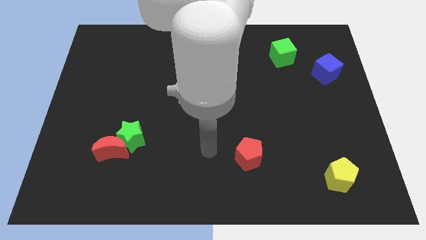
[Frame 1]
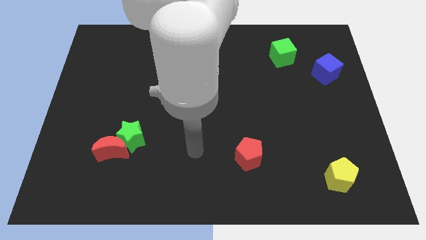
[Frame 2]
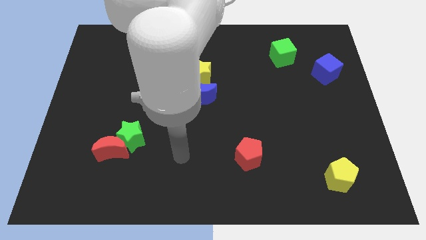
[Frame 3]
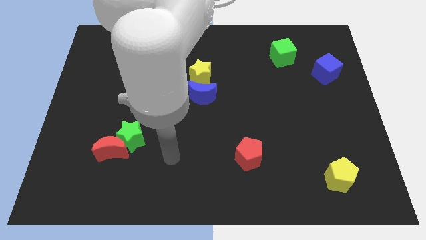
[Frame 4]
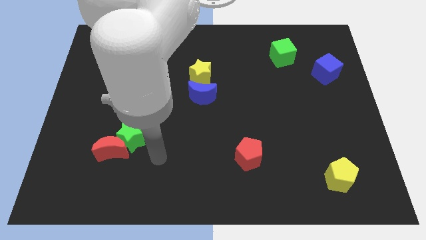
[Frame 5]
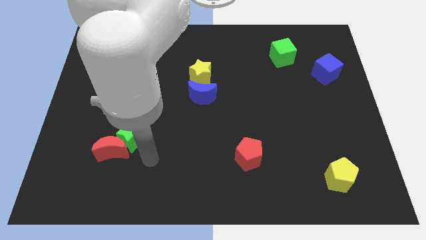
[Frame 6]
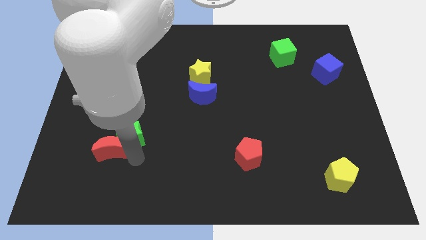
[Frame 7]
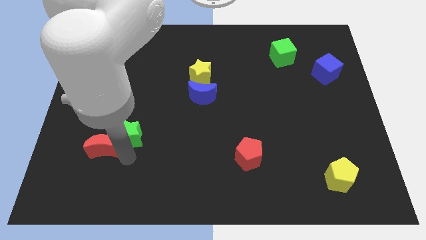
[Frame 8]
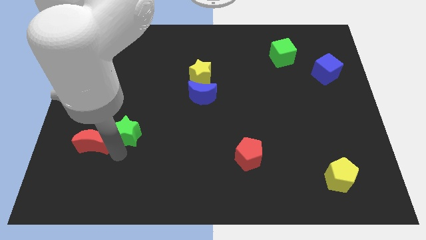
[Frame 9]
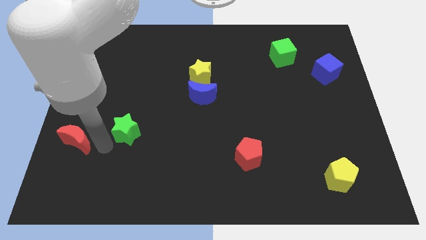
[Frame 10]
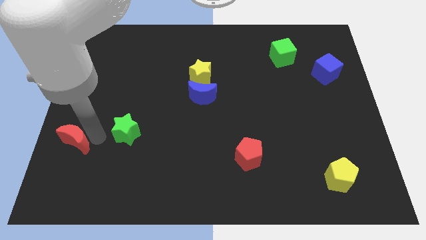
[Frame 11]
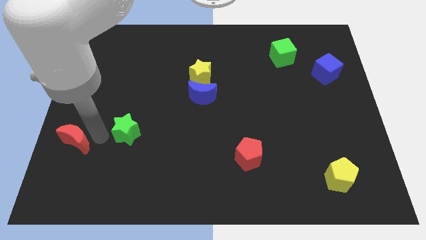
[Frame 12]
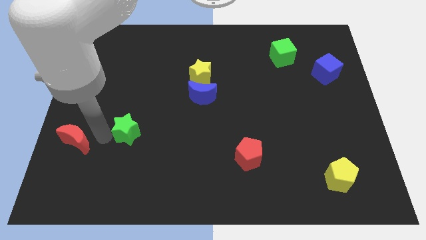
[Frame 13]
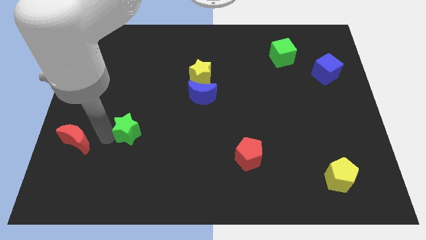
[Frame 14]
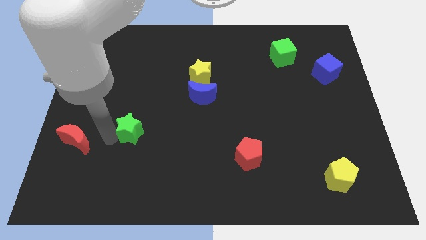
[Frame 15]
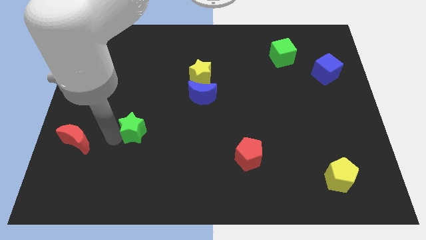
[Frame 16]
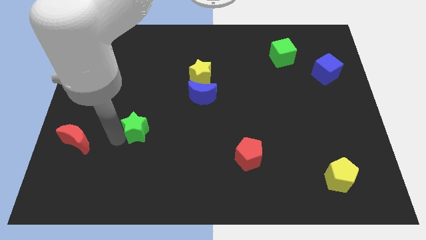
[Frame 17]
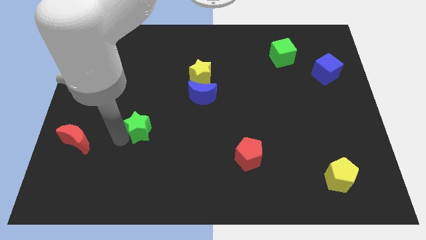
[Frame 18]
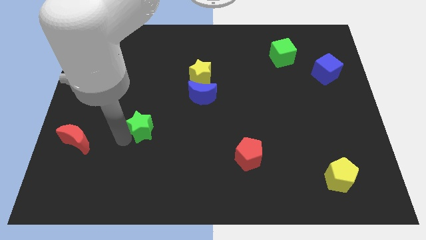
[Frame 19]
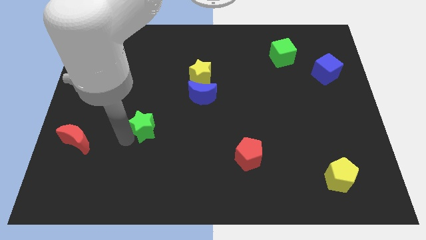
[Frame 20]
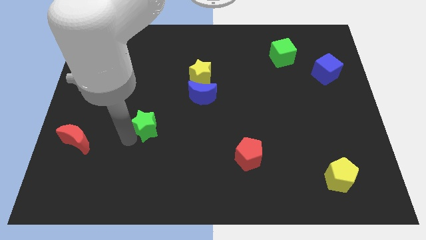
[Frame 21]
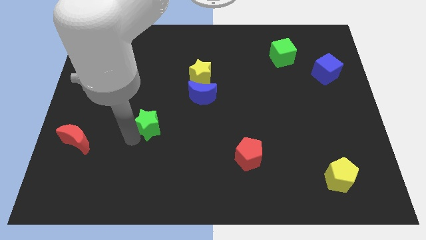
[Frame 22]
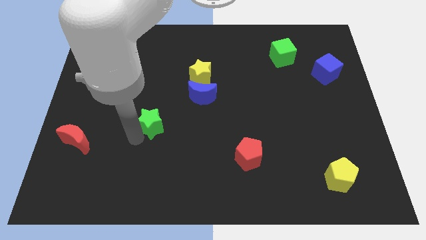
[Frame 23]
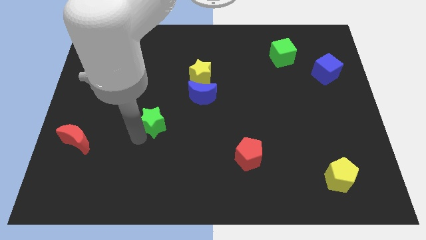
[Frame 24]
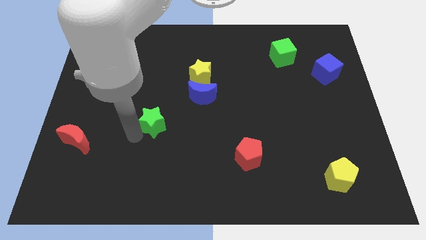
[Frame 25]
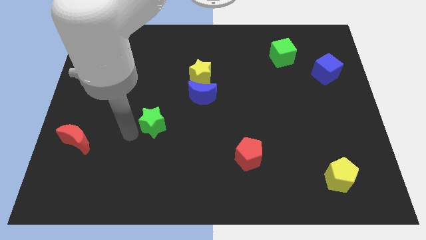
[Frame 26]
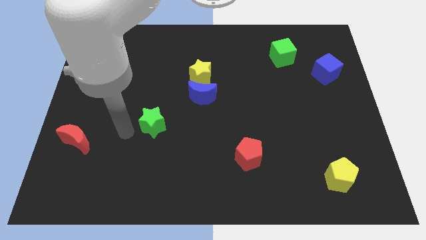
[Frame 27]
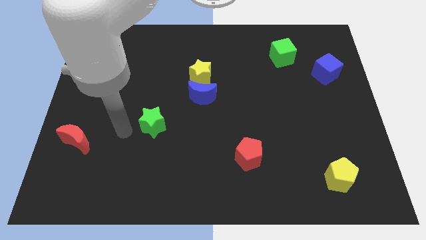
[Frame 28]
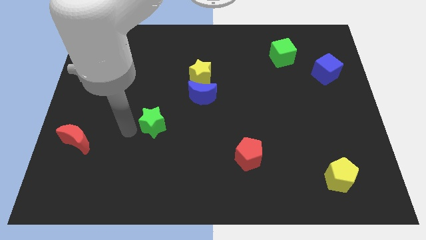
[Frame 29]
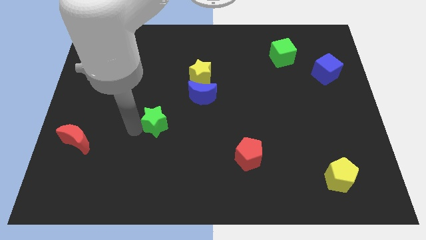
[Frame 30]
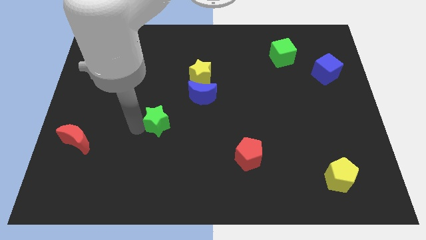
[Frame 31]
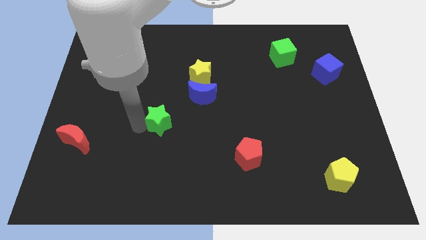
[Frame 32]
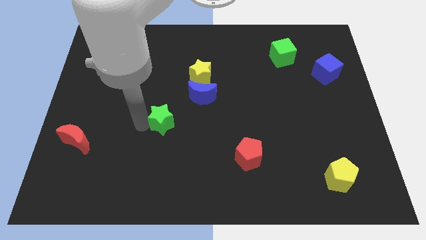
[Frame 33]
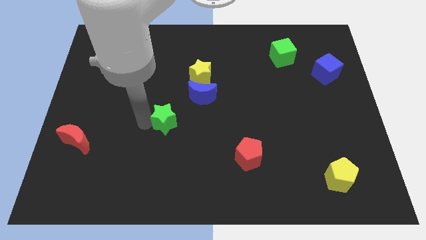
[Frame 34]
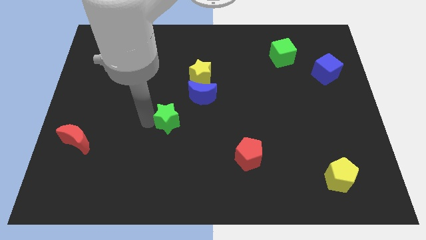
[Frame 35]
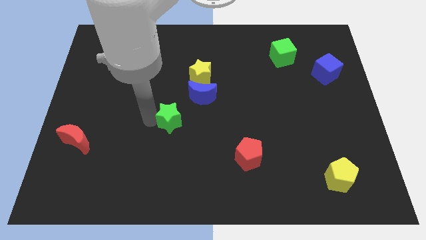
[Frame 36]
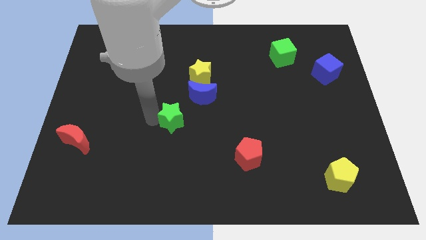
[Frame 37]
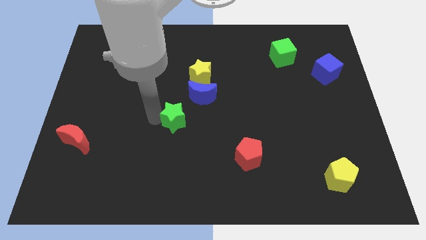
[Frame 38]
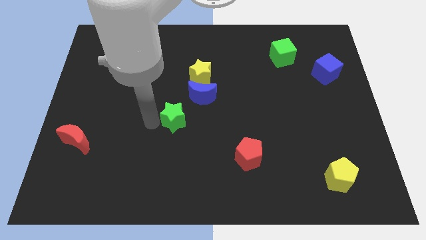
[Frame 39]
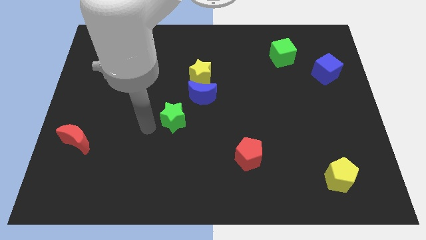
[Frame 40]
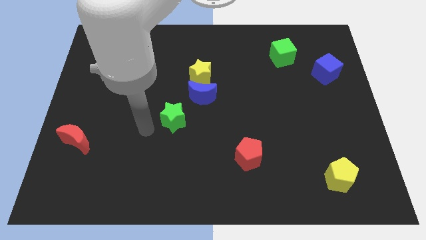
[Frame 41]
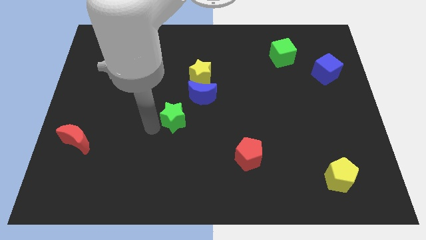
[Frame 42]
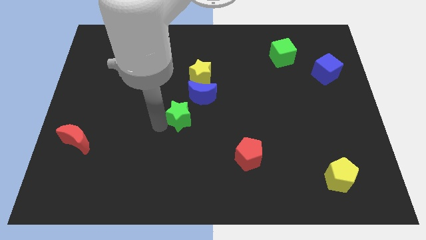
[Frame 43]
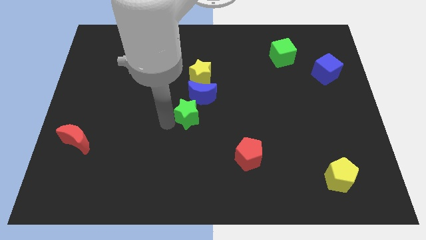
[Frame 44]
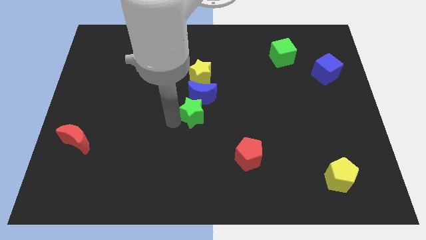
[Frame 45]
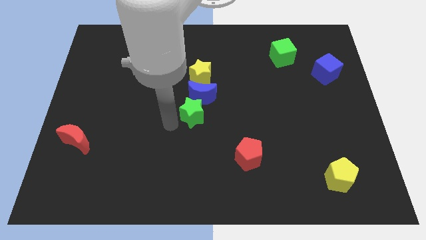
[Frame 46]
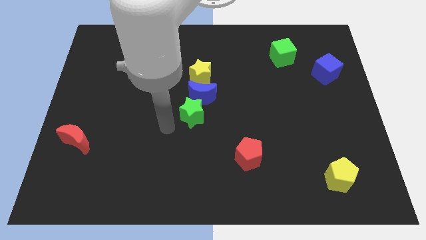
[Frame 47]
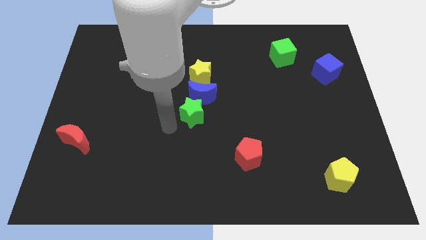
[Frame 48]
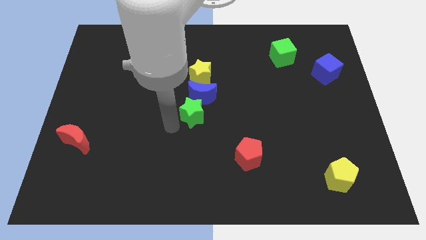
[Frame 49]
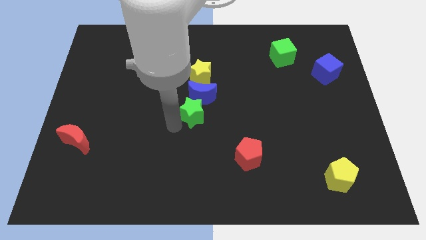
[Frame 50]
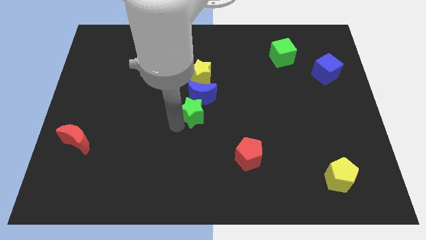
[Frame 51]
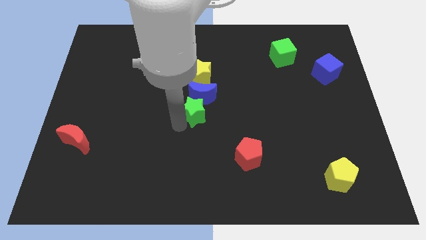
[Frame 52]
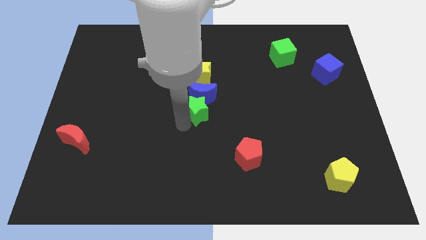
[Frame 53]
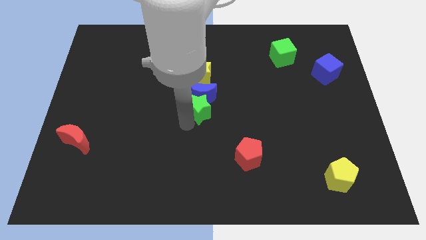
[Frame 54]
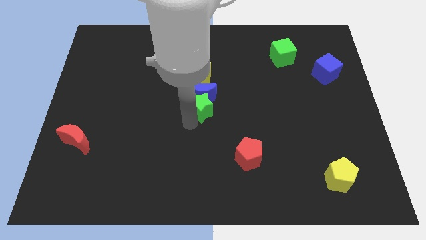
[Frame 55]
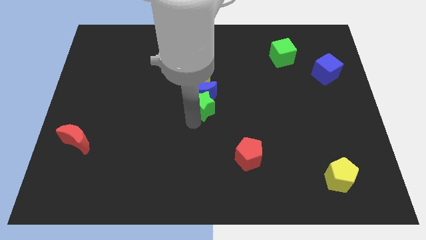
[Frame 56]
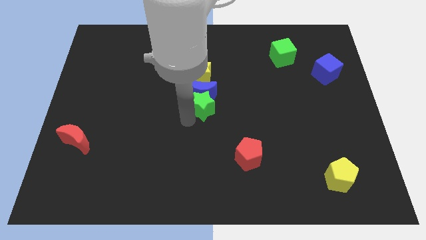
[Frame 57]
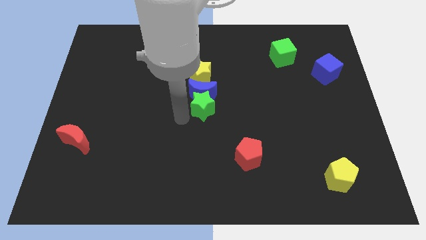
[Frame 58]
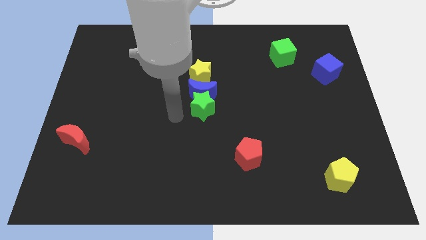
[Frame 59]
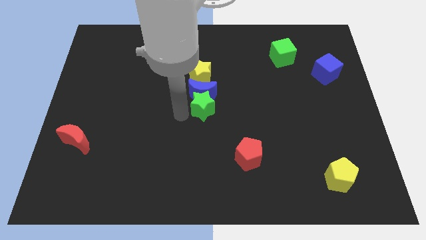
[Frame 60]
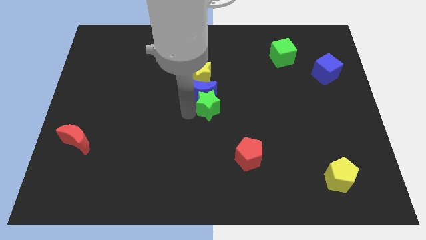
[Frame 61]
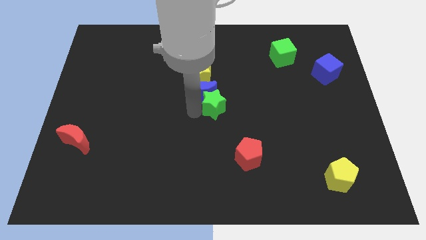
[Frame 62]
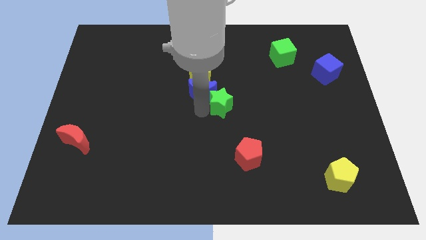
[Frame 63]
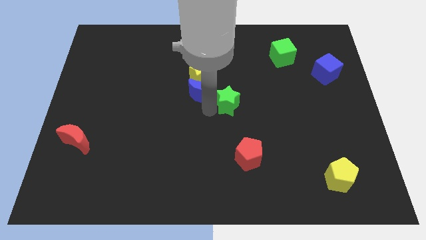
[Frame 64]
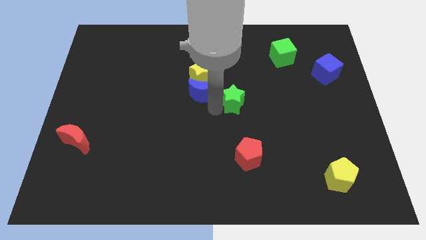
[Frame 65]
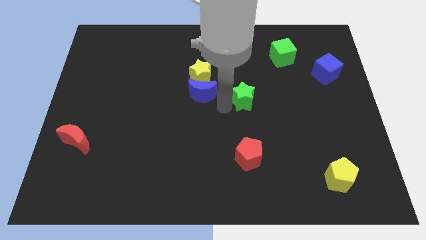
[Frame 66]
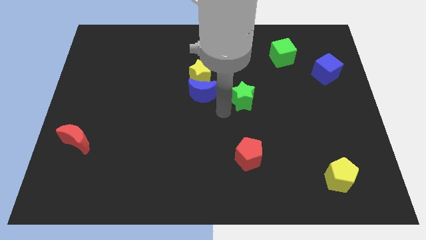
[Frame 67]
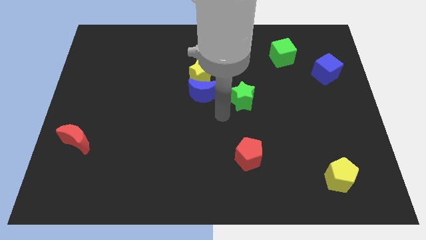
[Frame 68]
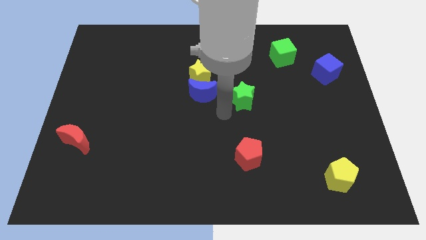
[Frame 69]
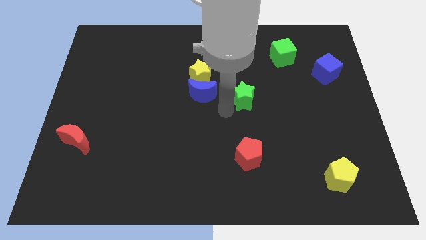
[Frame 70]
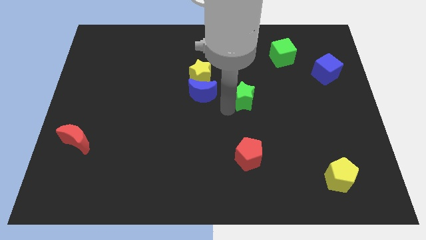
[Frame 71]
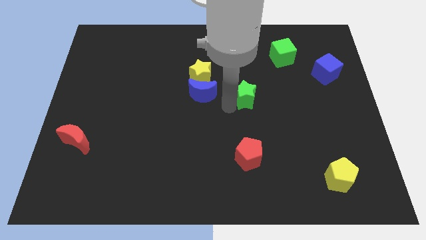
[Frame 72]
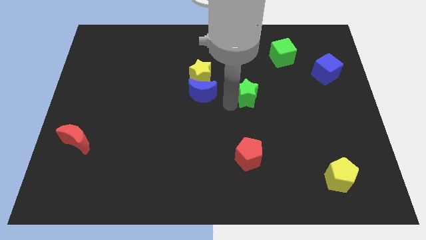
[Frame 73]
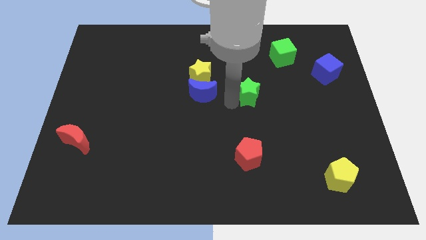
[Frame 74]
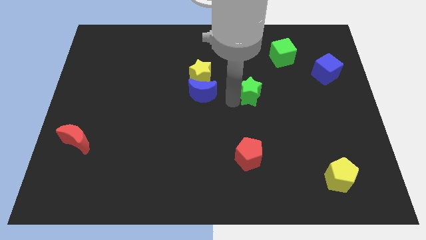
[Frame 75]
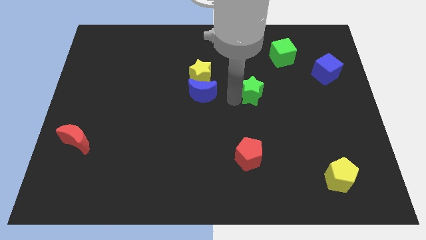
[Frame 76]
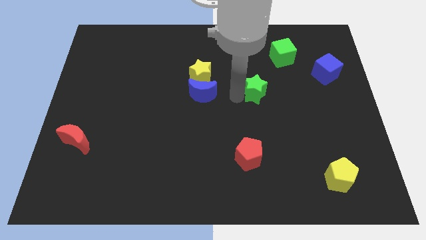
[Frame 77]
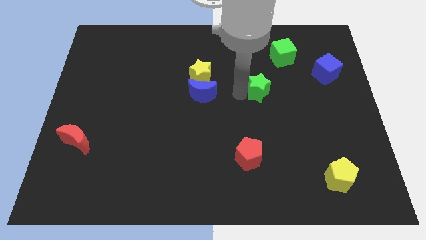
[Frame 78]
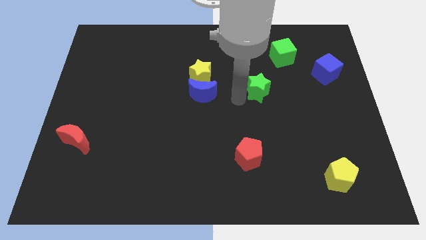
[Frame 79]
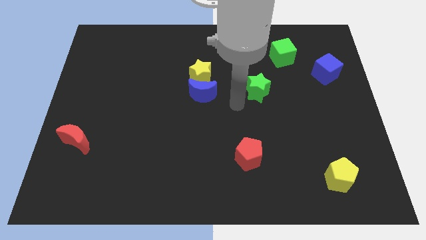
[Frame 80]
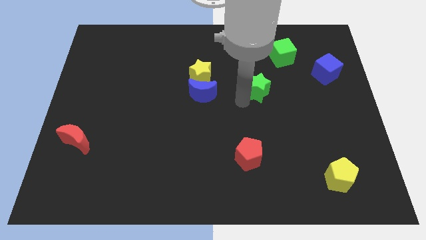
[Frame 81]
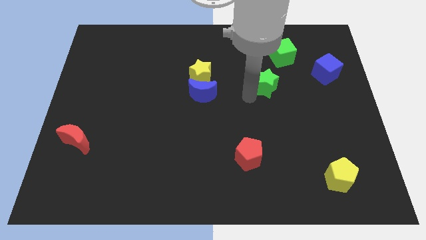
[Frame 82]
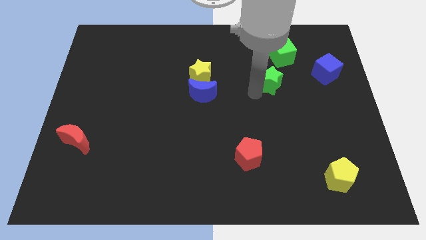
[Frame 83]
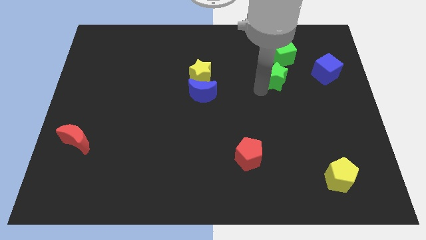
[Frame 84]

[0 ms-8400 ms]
slide the green star left of the blue cube
